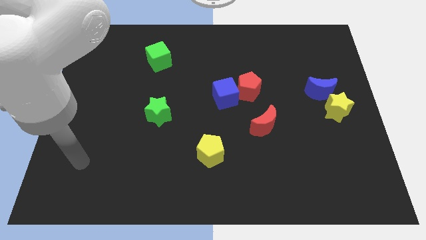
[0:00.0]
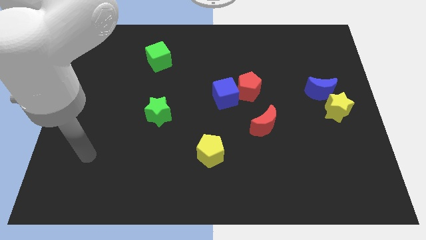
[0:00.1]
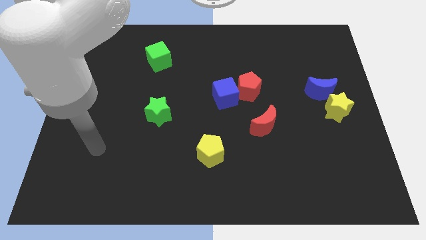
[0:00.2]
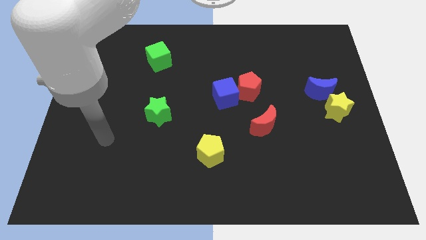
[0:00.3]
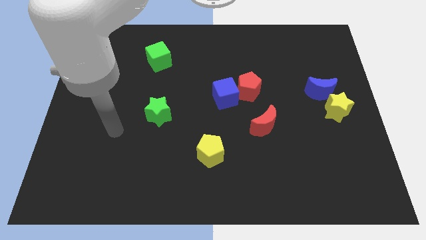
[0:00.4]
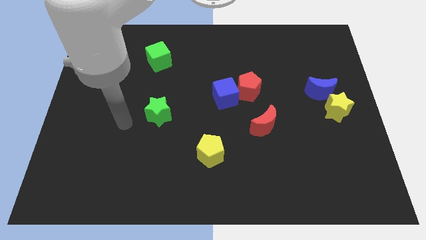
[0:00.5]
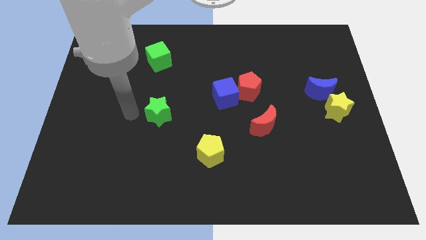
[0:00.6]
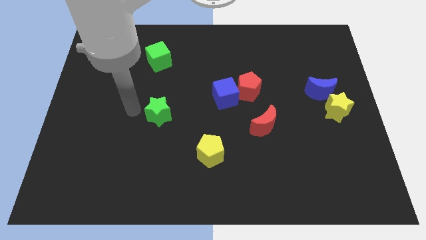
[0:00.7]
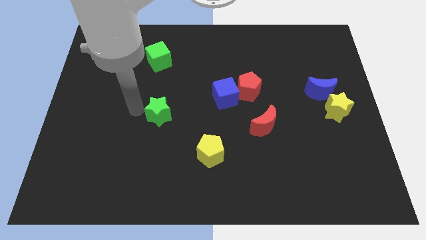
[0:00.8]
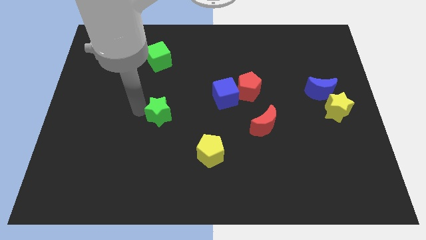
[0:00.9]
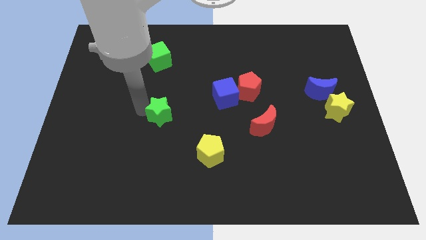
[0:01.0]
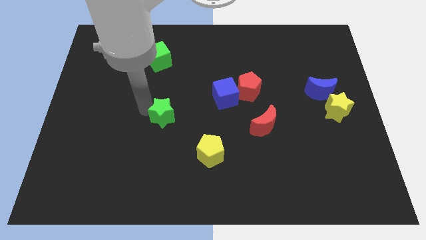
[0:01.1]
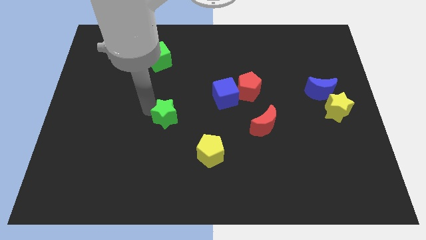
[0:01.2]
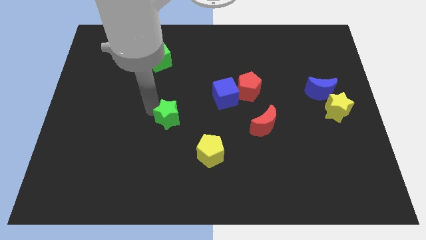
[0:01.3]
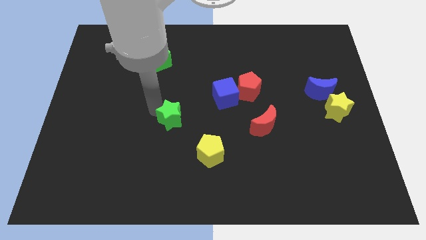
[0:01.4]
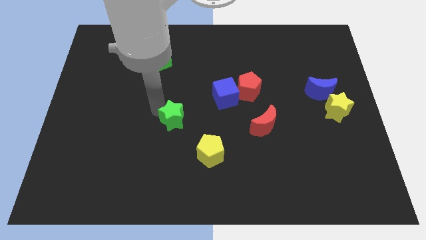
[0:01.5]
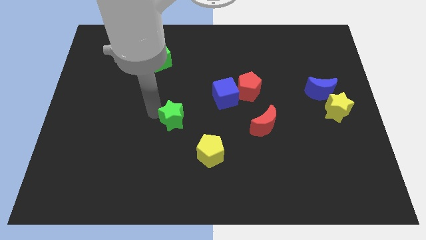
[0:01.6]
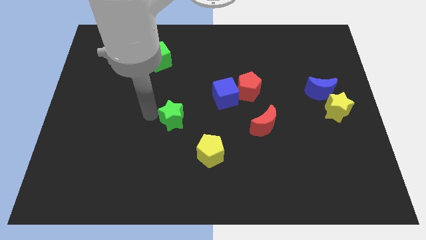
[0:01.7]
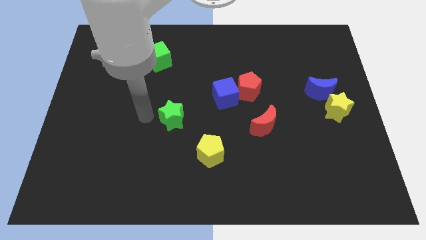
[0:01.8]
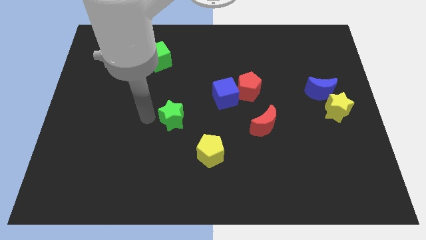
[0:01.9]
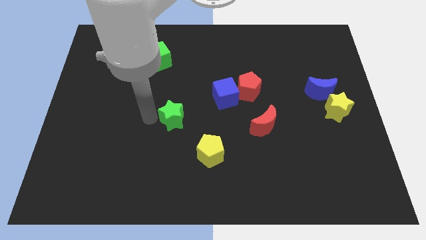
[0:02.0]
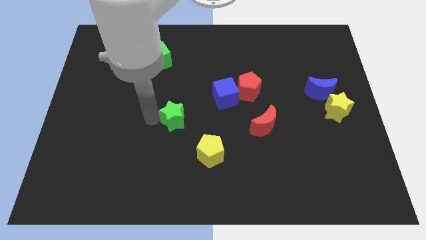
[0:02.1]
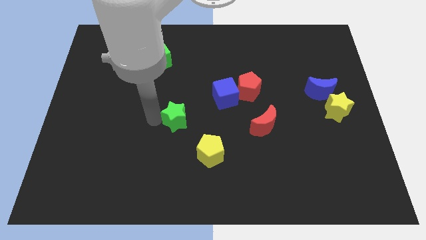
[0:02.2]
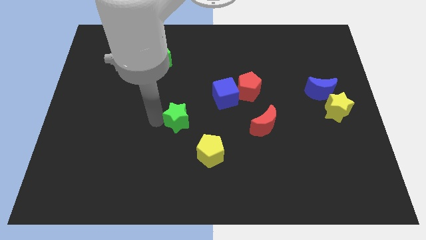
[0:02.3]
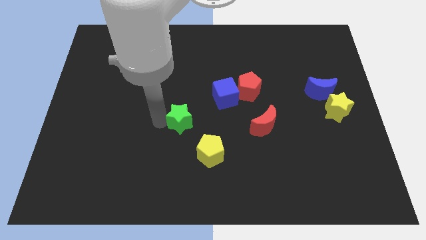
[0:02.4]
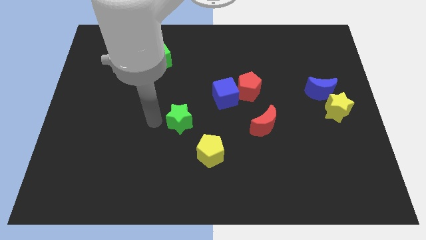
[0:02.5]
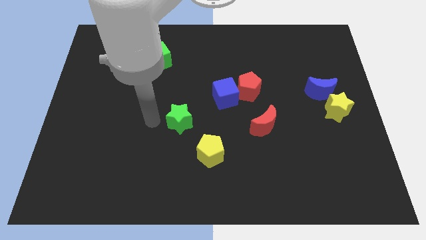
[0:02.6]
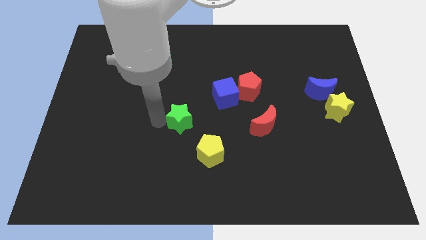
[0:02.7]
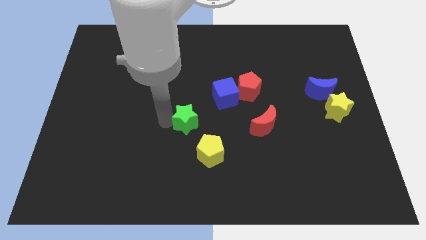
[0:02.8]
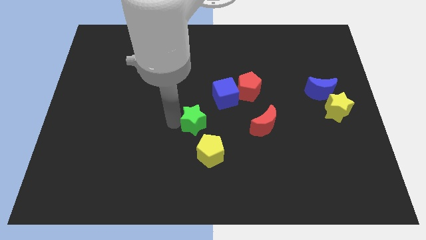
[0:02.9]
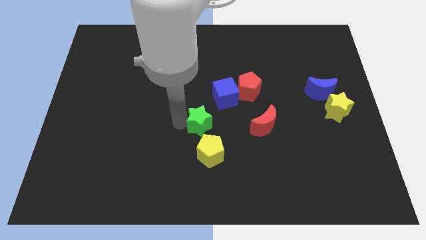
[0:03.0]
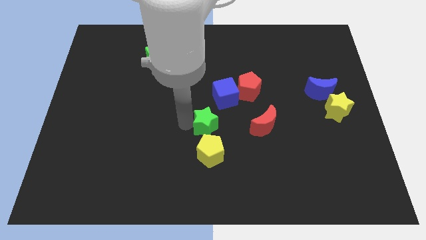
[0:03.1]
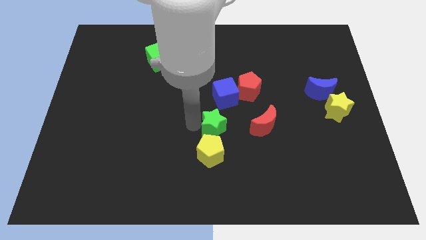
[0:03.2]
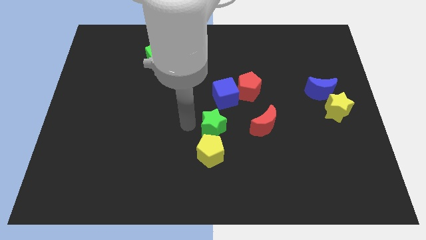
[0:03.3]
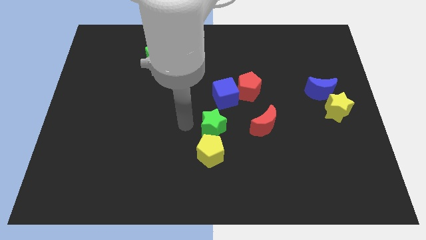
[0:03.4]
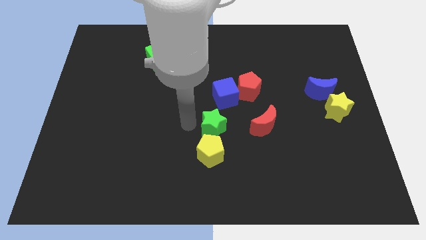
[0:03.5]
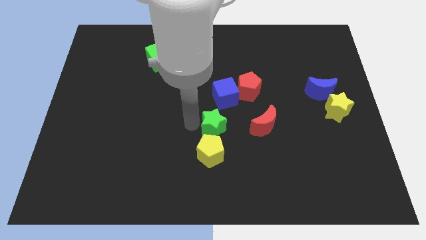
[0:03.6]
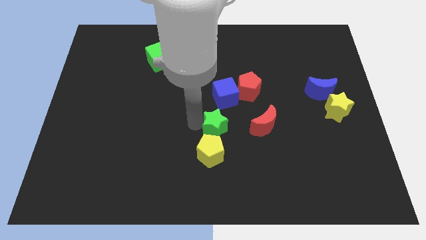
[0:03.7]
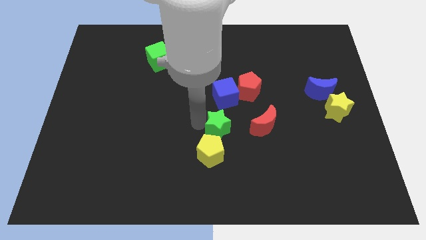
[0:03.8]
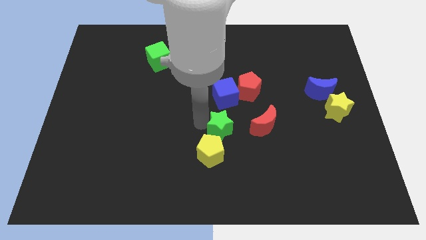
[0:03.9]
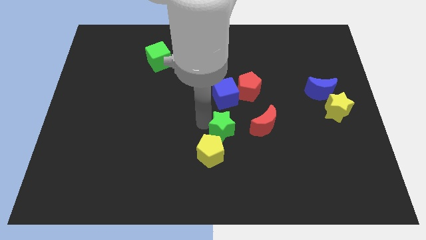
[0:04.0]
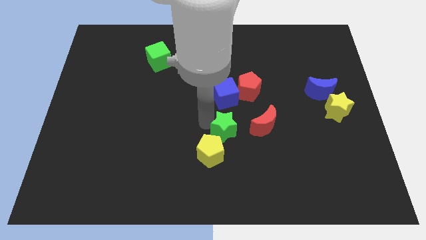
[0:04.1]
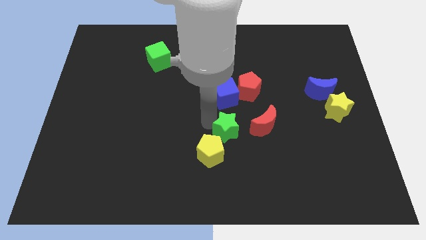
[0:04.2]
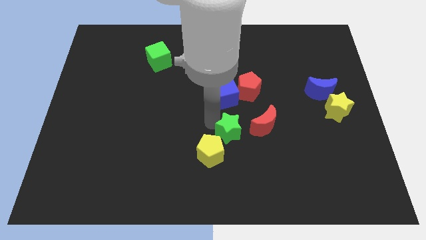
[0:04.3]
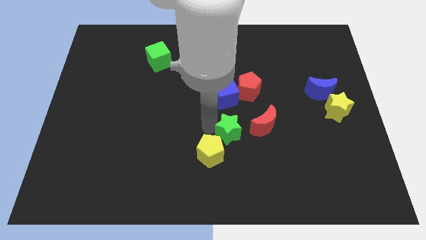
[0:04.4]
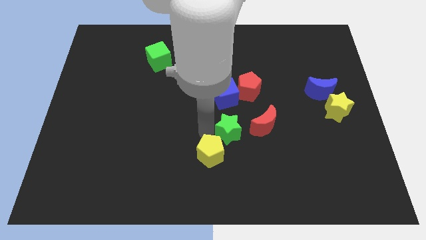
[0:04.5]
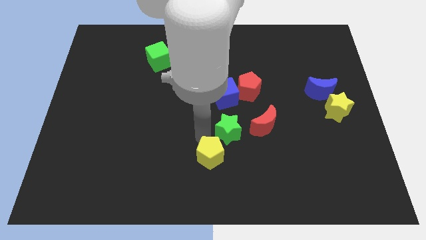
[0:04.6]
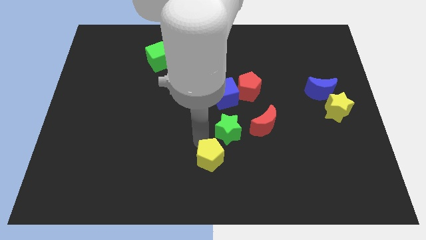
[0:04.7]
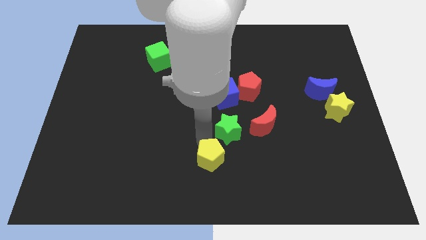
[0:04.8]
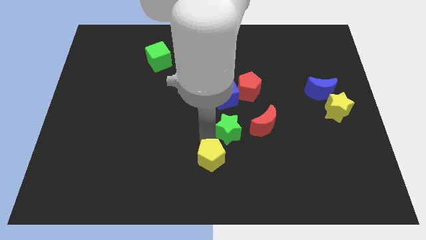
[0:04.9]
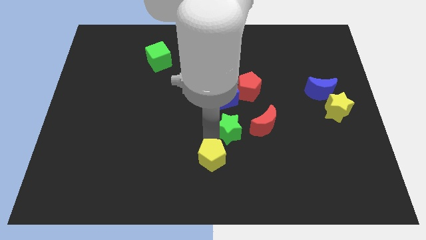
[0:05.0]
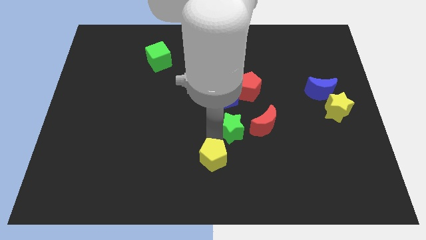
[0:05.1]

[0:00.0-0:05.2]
put the green star below the red pentagon

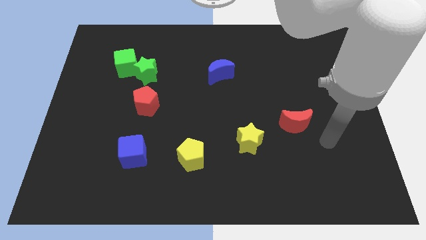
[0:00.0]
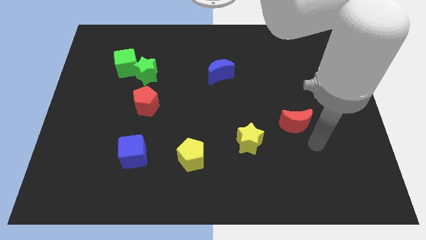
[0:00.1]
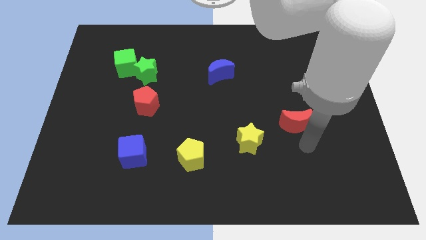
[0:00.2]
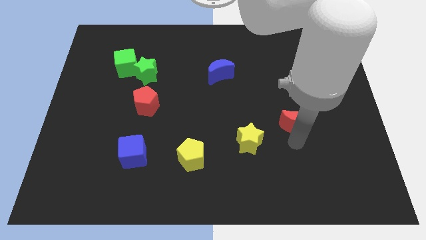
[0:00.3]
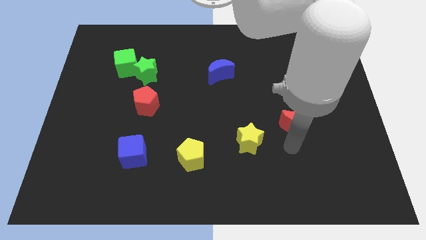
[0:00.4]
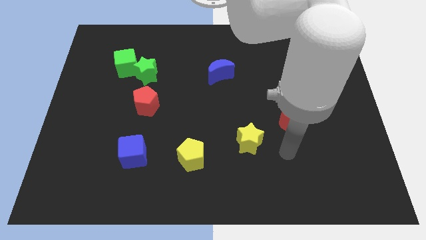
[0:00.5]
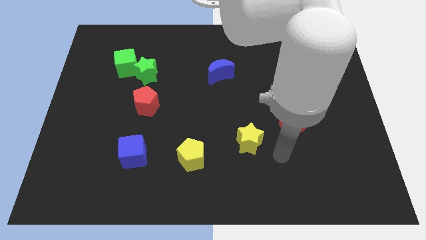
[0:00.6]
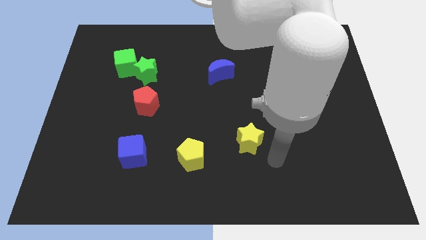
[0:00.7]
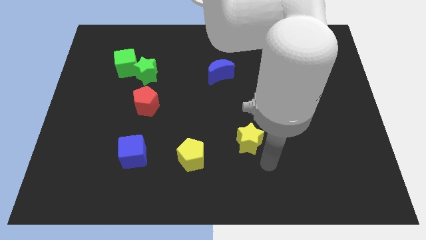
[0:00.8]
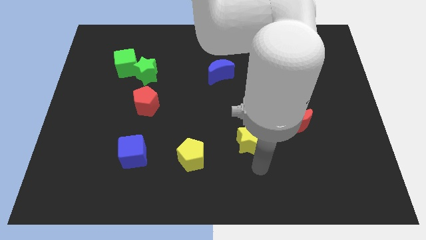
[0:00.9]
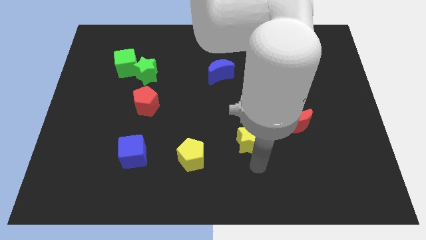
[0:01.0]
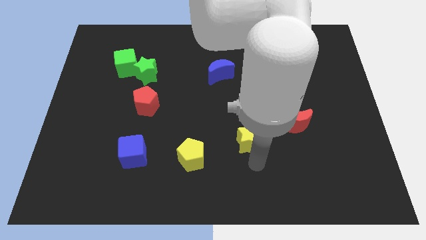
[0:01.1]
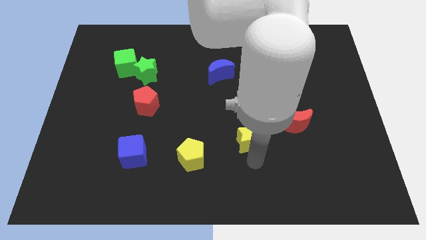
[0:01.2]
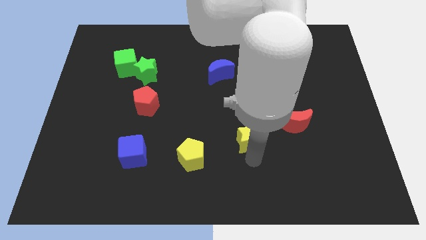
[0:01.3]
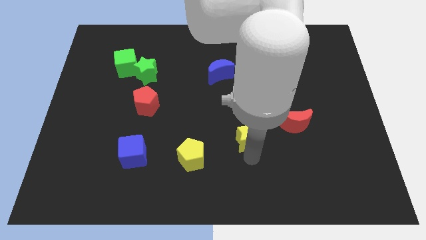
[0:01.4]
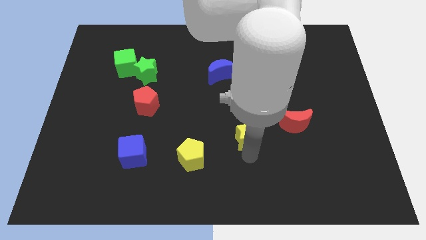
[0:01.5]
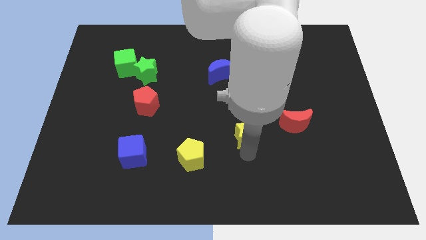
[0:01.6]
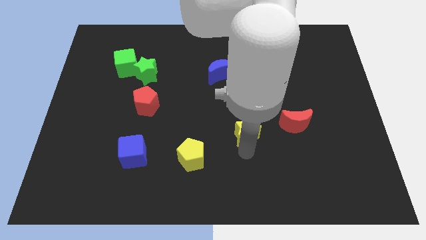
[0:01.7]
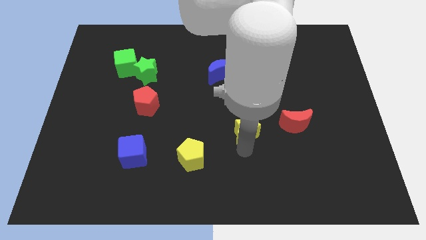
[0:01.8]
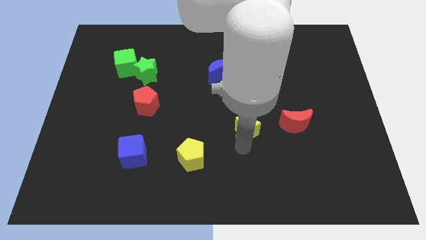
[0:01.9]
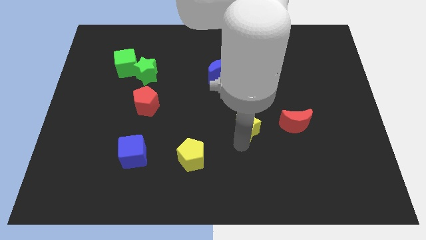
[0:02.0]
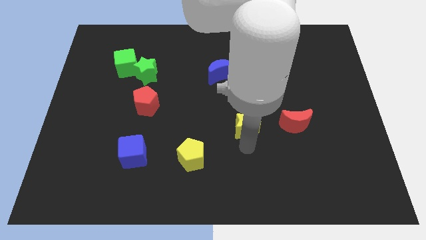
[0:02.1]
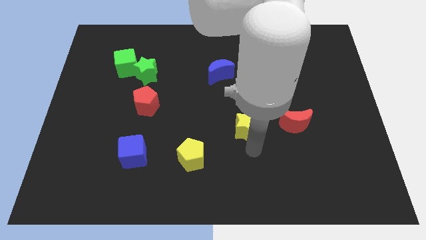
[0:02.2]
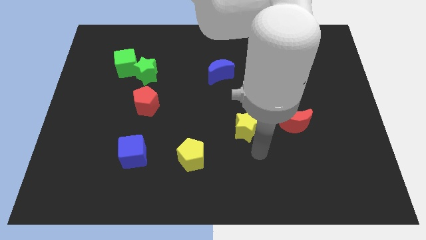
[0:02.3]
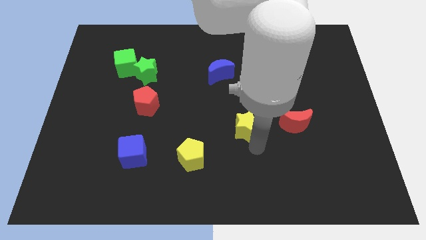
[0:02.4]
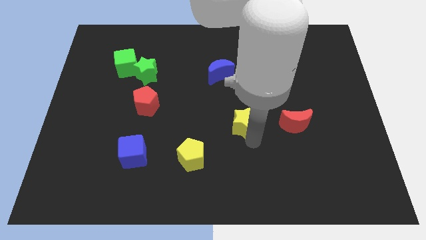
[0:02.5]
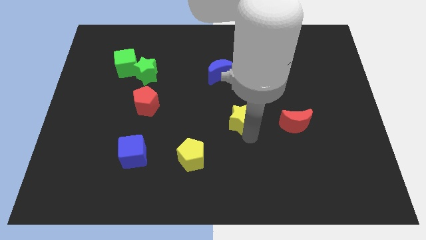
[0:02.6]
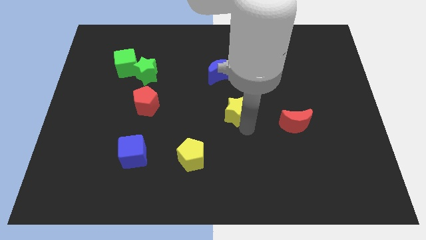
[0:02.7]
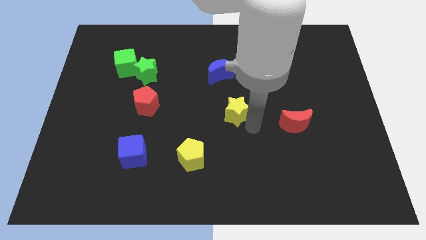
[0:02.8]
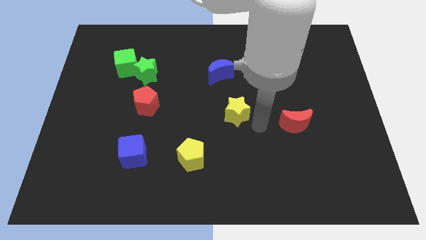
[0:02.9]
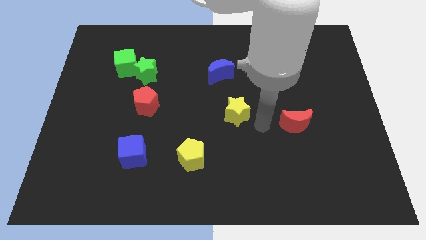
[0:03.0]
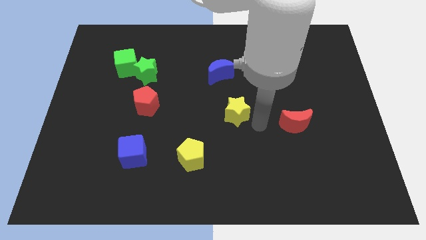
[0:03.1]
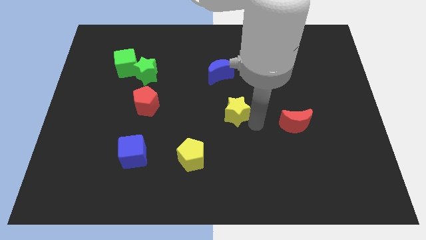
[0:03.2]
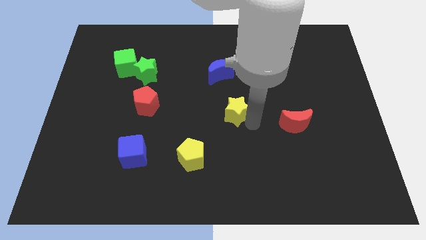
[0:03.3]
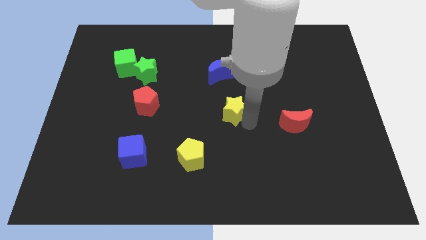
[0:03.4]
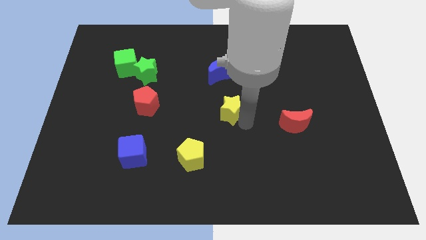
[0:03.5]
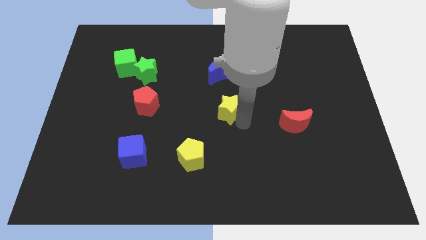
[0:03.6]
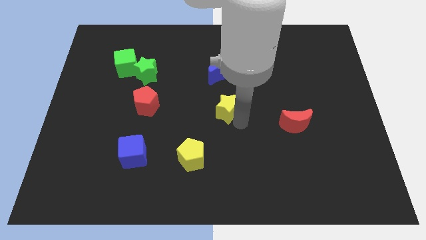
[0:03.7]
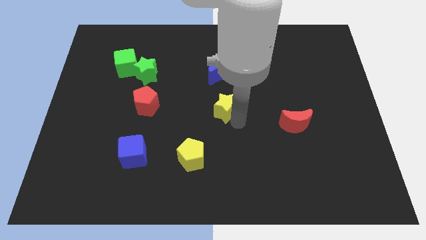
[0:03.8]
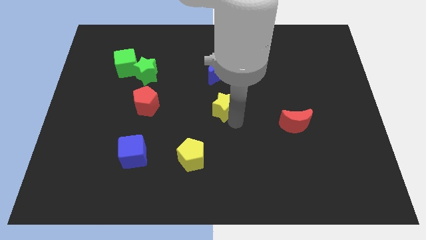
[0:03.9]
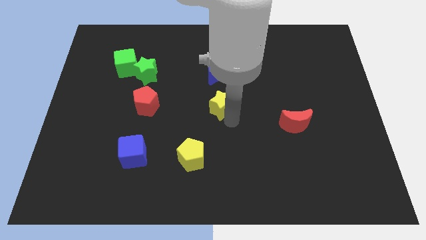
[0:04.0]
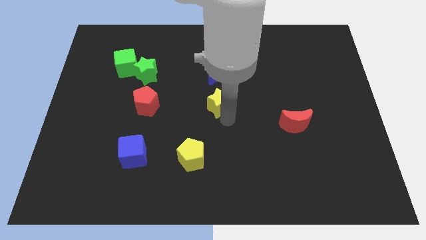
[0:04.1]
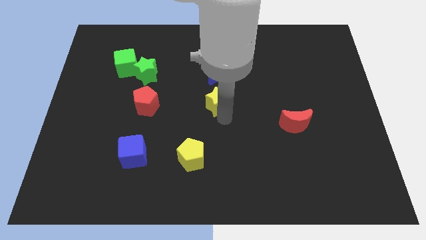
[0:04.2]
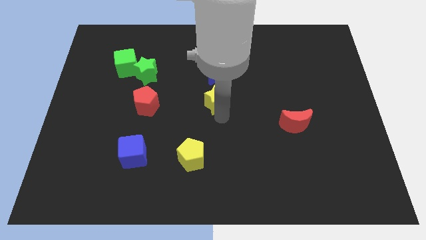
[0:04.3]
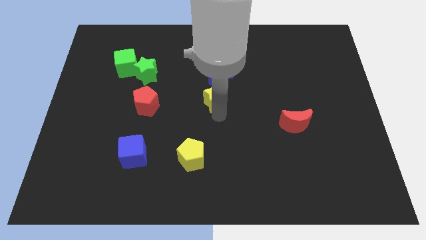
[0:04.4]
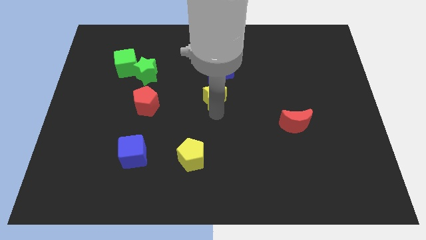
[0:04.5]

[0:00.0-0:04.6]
move the yellow star to the bottom left side of the blue moon
